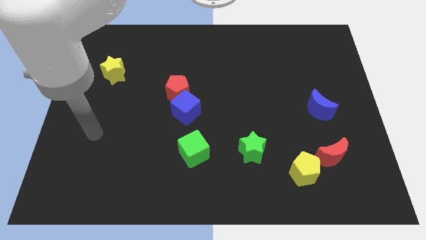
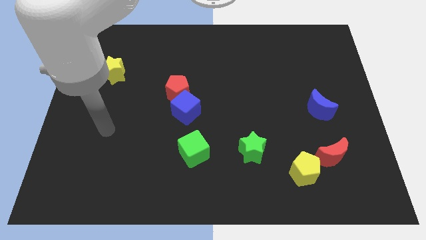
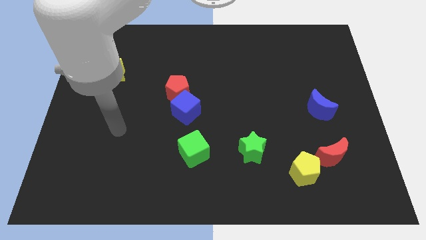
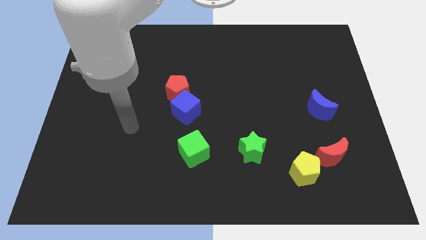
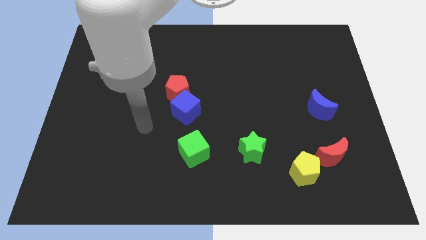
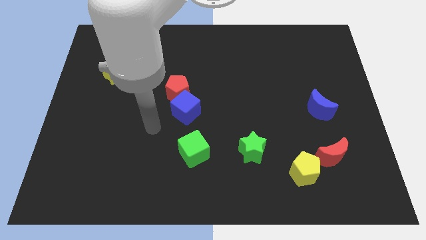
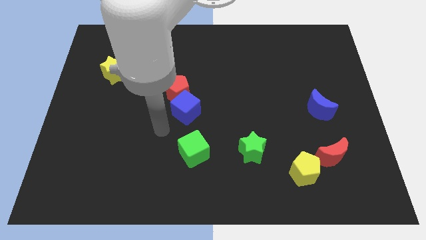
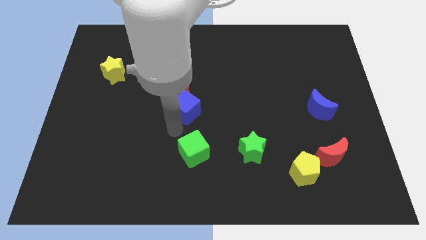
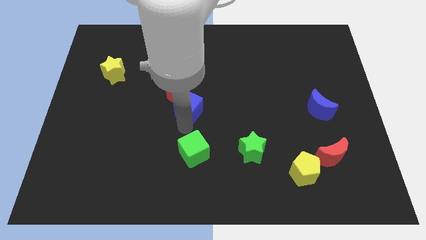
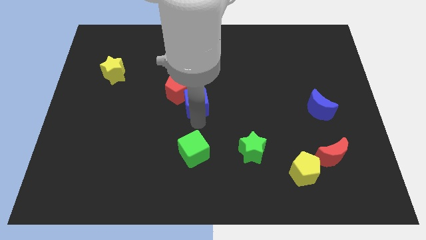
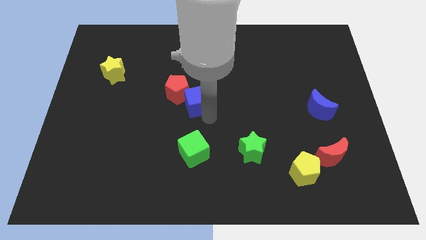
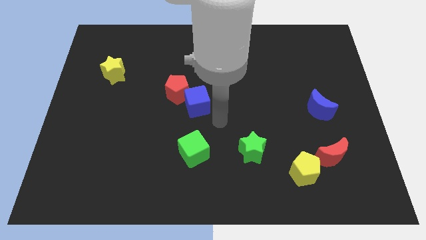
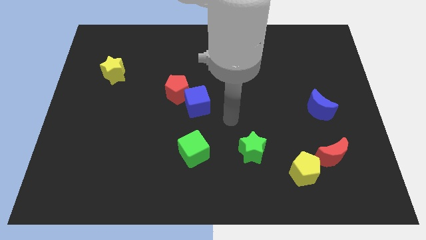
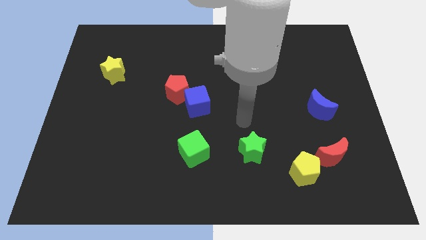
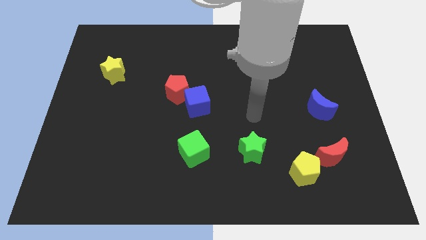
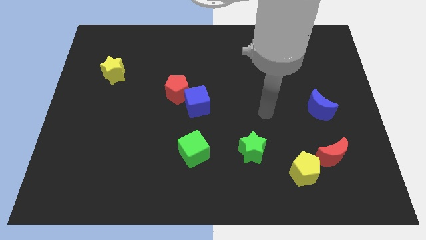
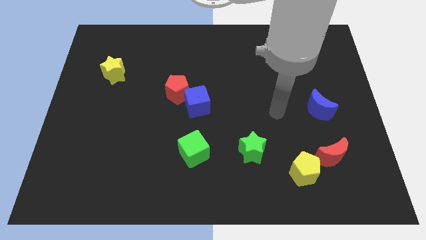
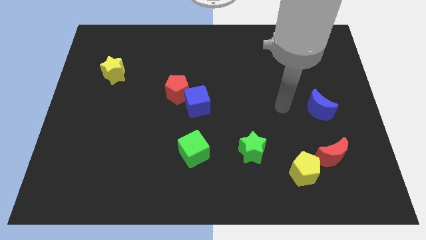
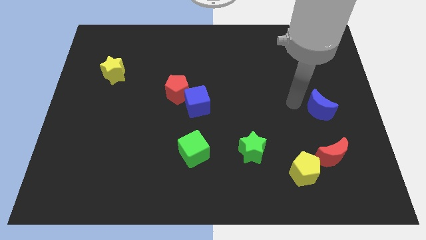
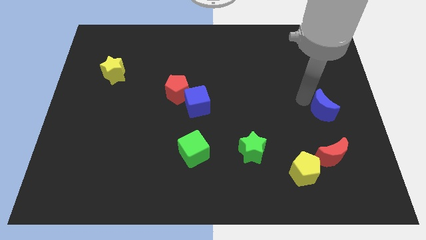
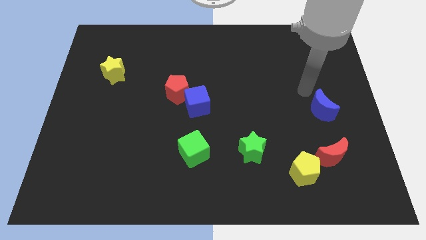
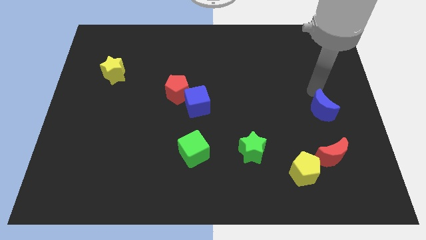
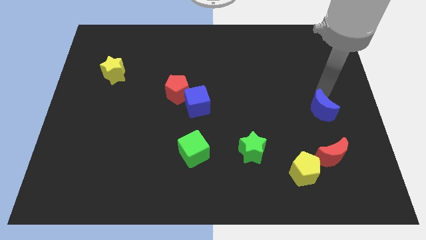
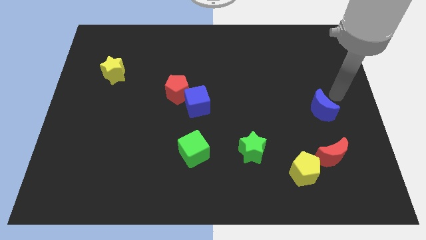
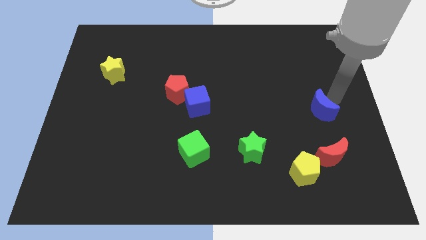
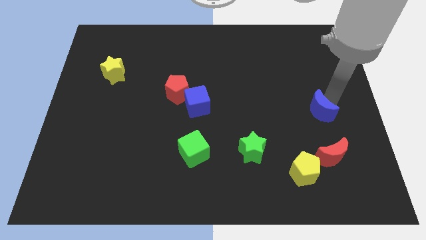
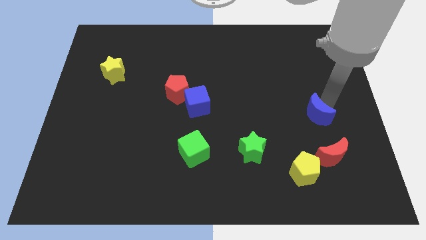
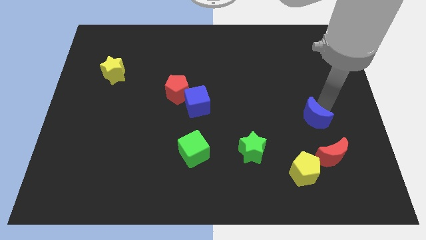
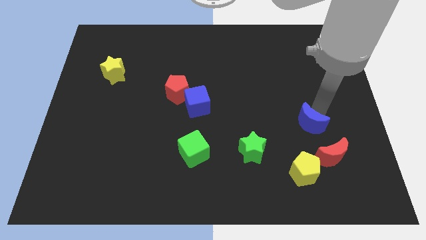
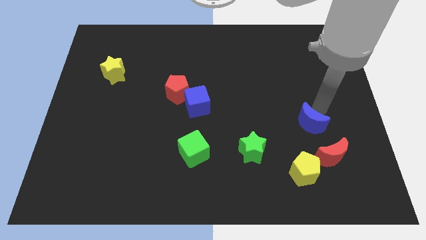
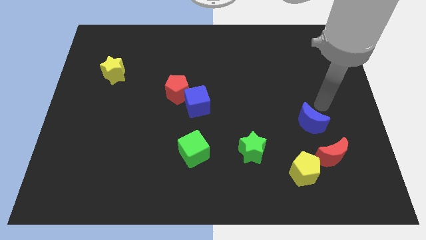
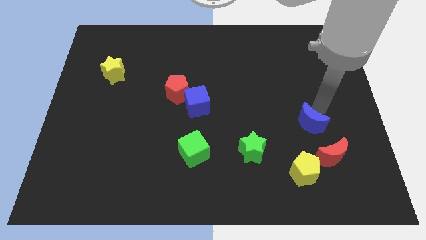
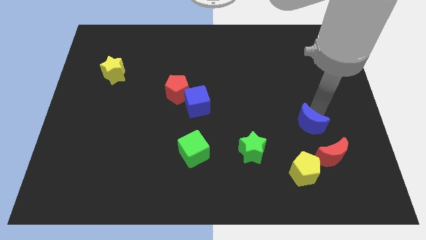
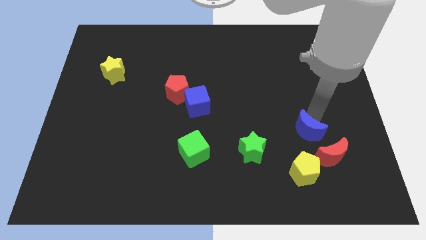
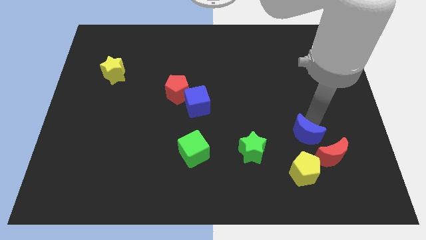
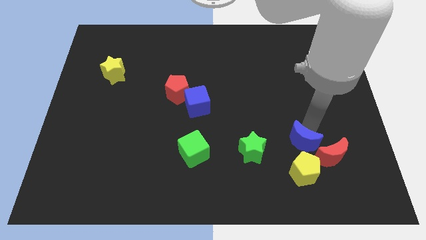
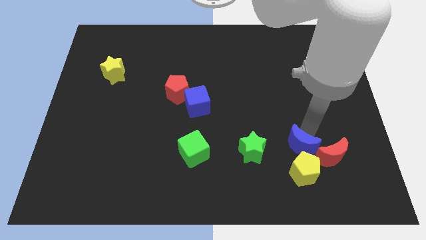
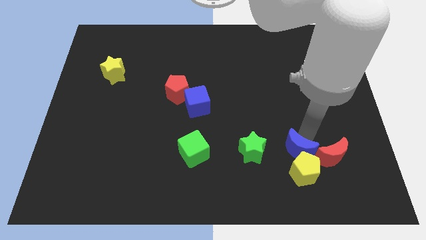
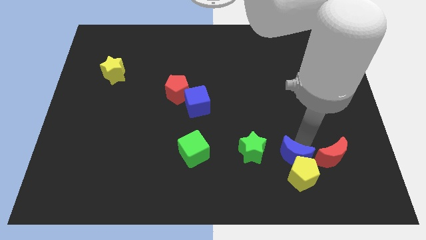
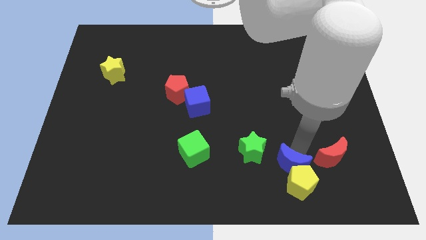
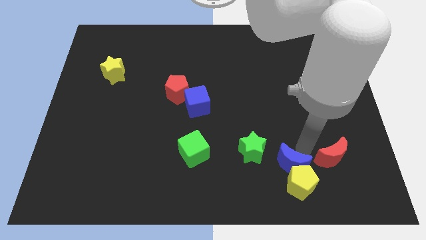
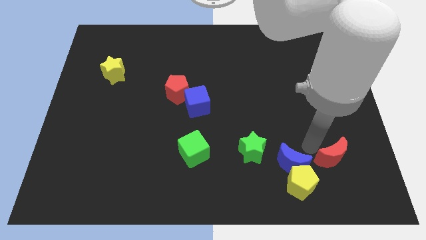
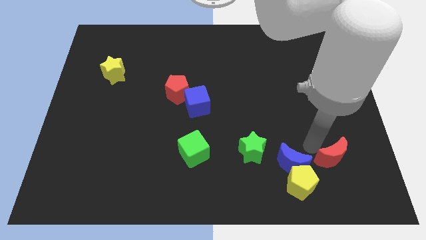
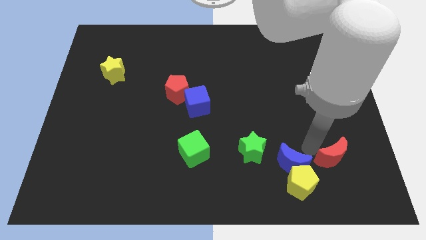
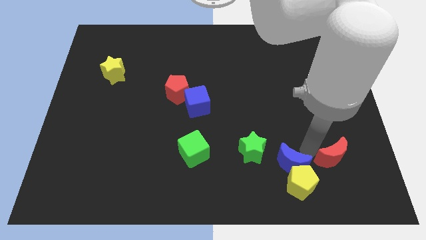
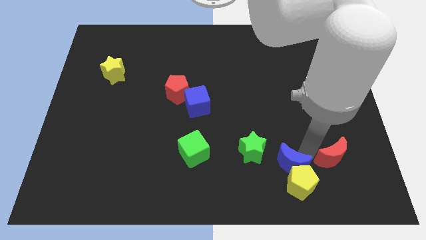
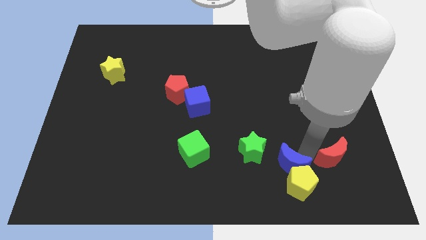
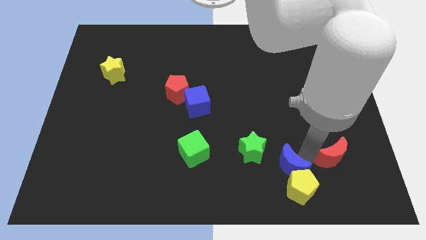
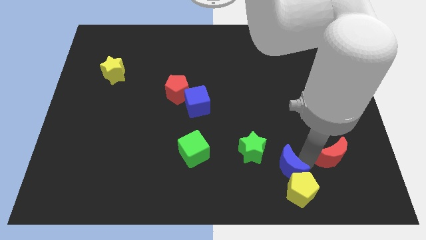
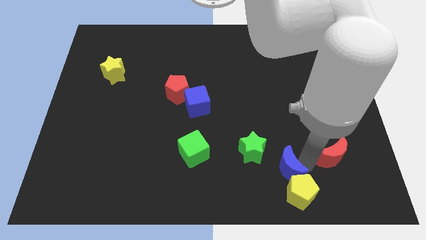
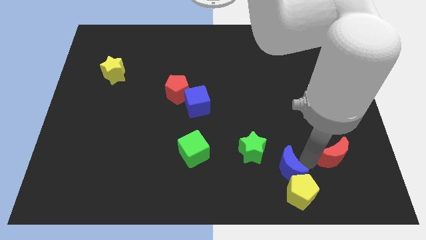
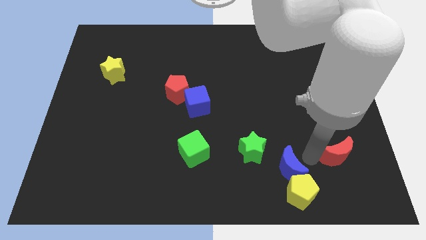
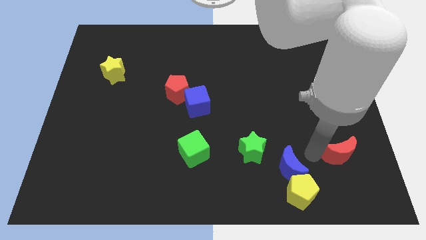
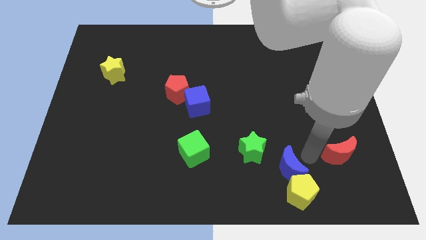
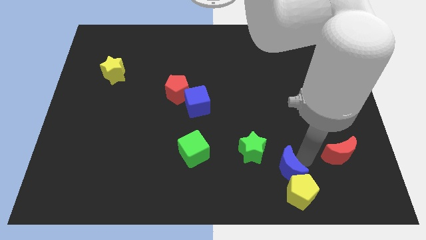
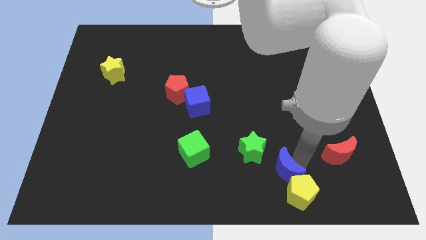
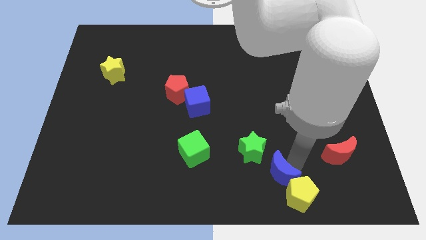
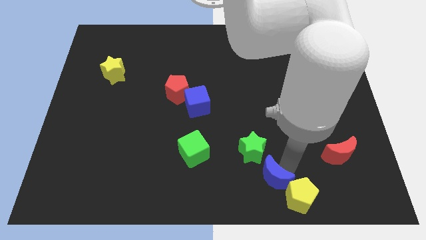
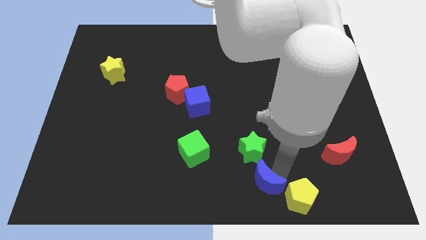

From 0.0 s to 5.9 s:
slide the blue moon to the bottom side

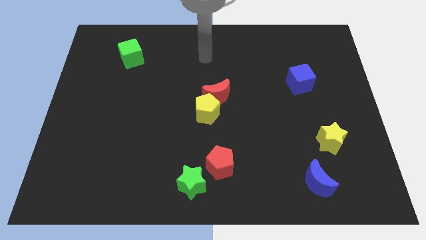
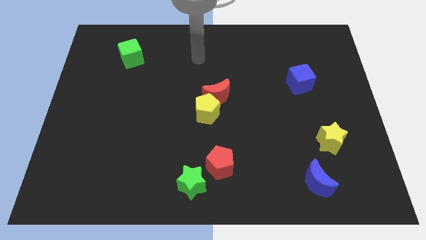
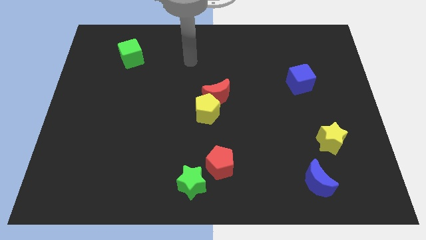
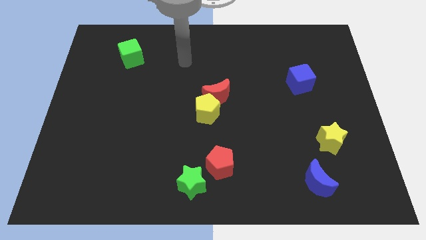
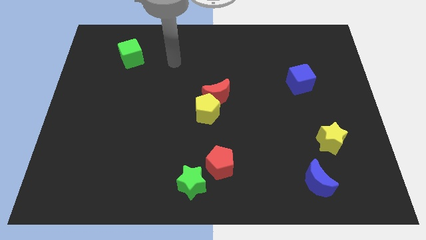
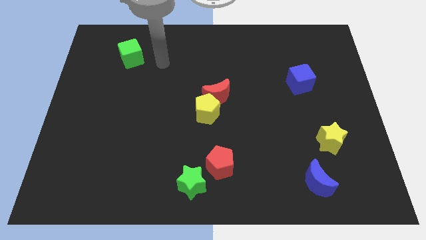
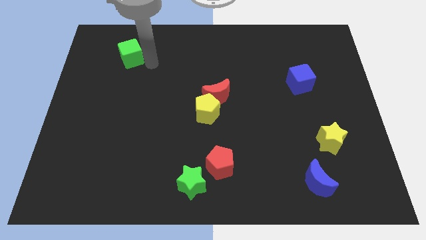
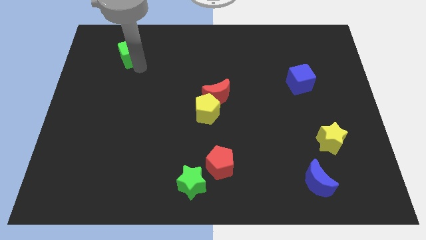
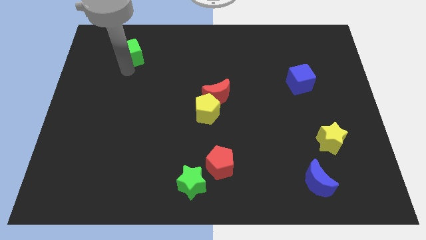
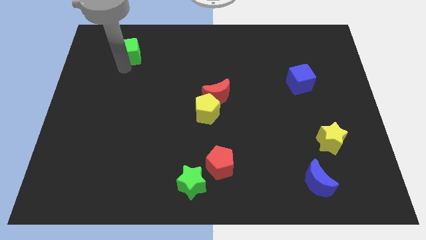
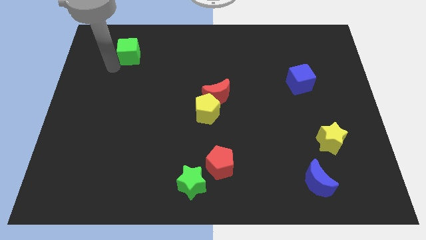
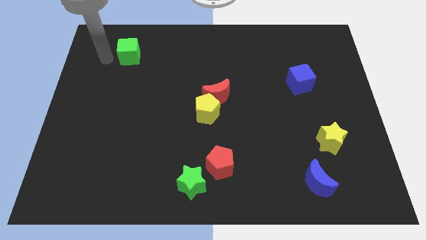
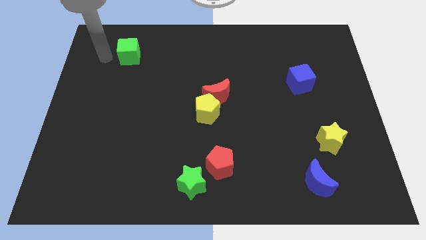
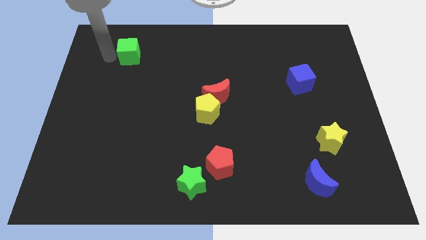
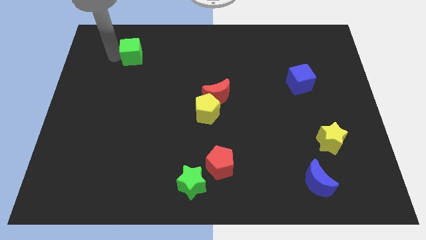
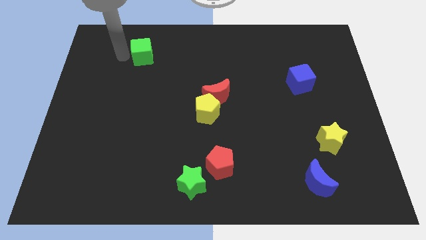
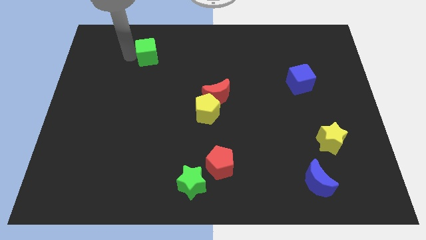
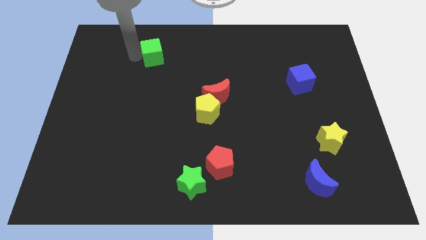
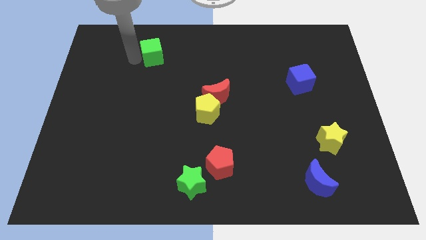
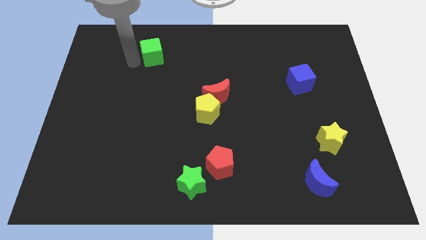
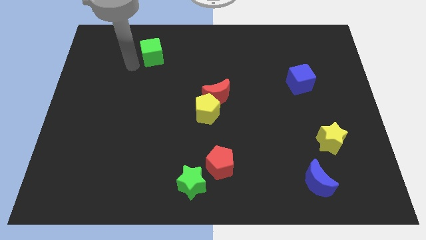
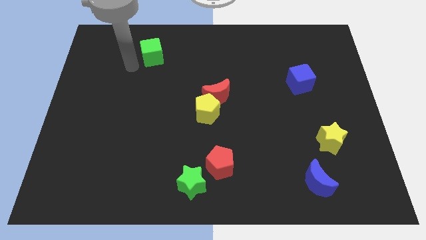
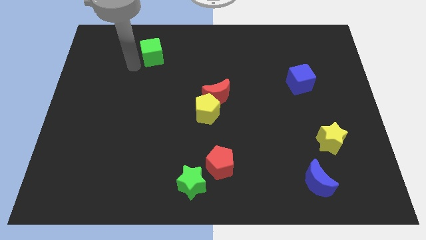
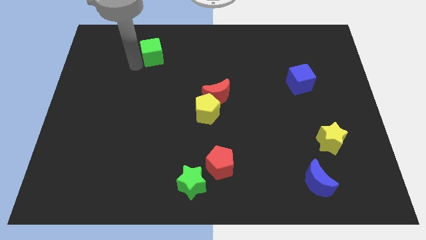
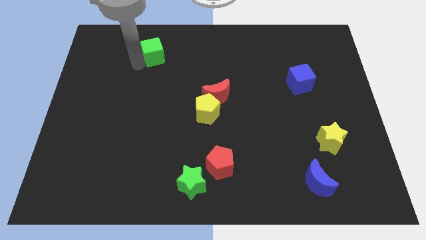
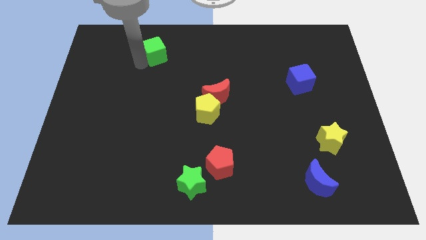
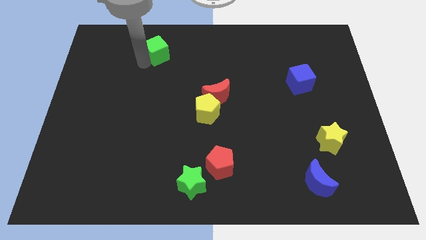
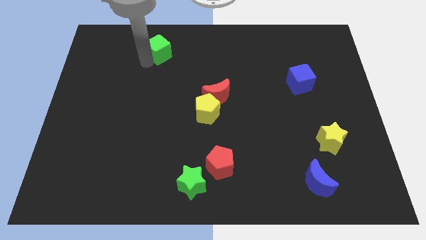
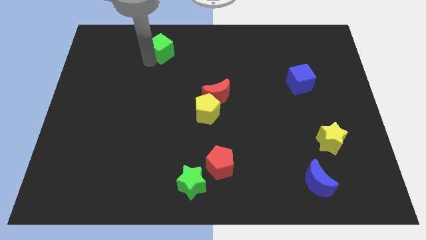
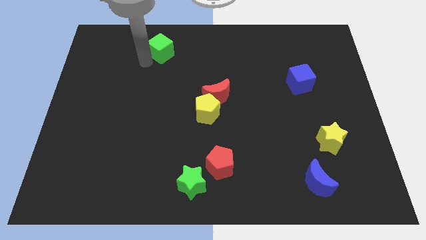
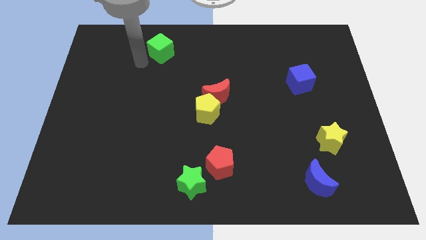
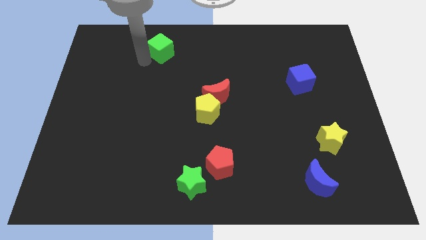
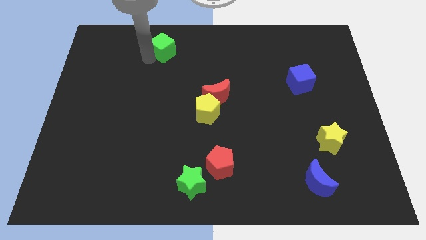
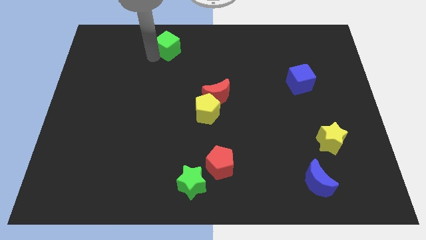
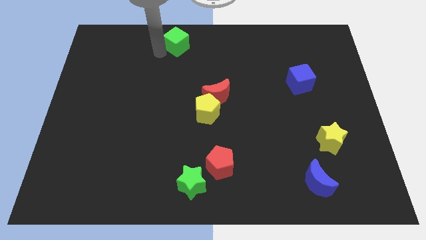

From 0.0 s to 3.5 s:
slide the green cube to the top side
